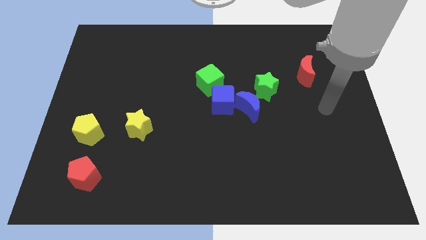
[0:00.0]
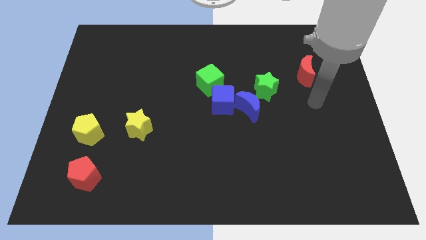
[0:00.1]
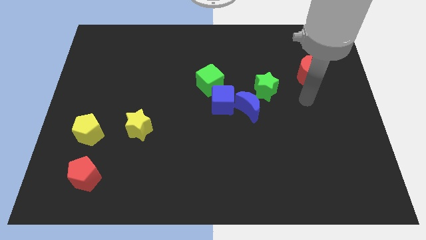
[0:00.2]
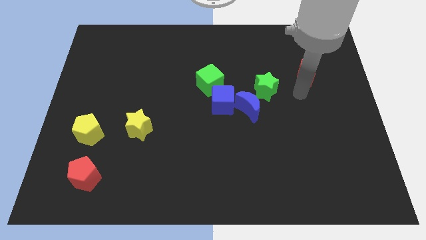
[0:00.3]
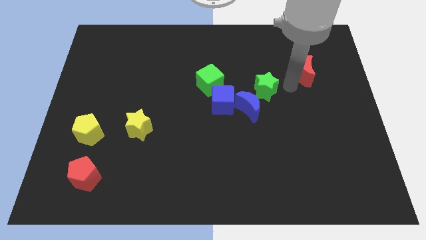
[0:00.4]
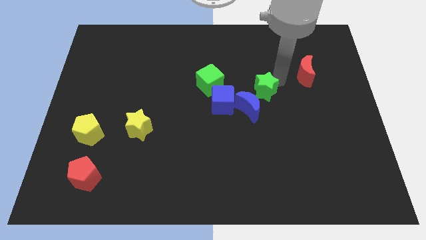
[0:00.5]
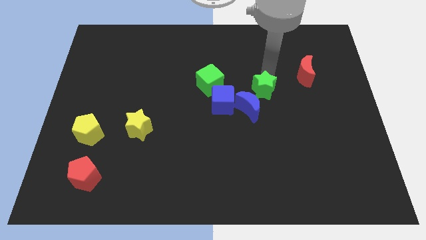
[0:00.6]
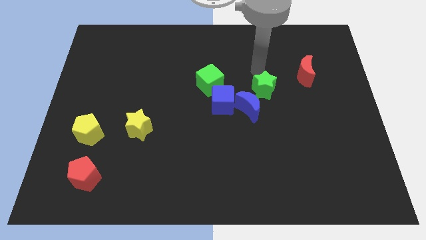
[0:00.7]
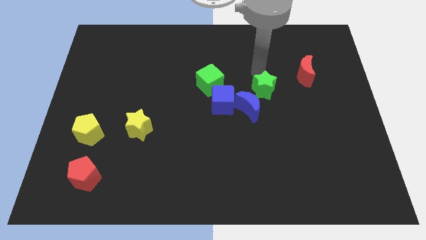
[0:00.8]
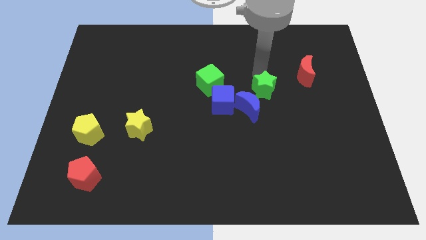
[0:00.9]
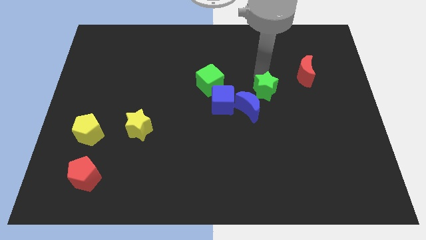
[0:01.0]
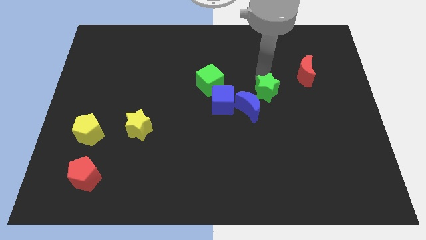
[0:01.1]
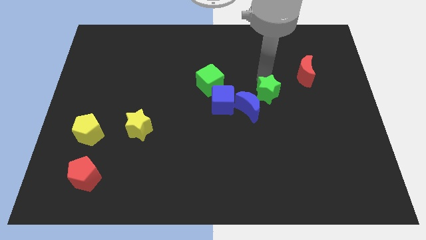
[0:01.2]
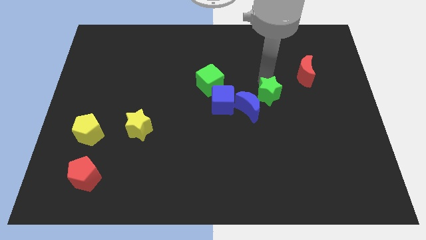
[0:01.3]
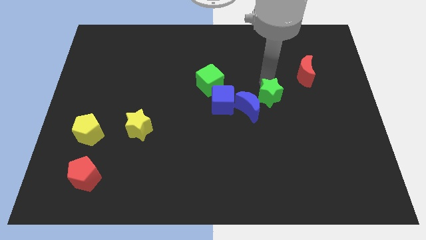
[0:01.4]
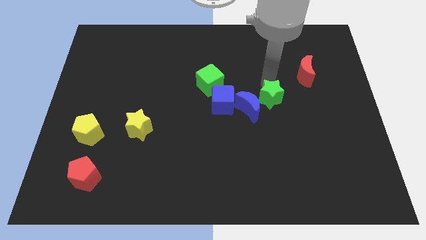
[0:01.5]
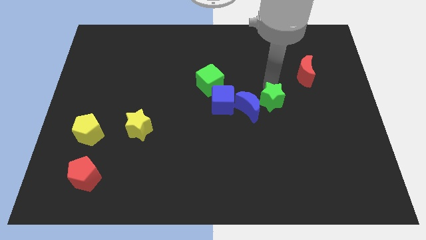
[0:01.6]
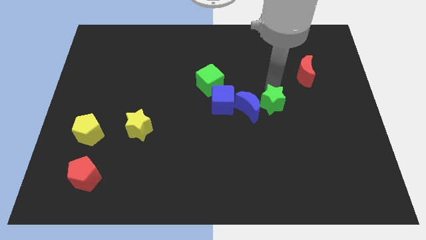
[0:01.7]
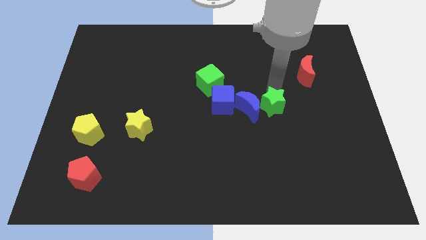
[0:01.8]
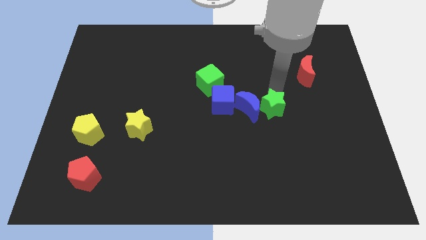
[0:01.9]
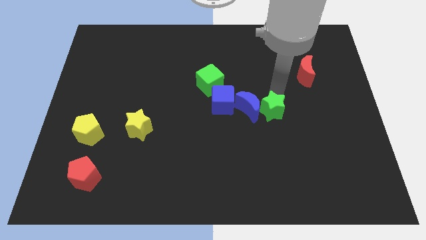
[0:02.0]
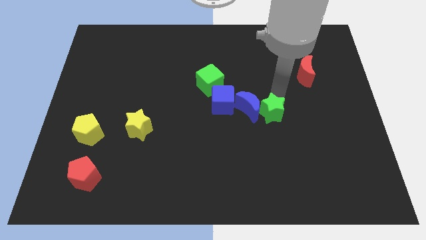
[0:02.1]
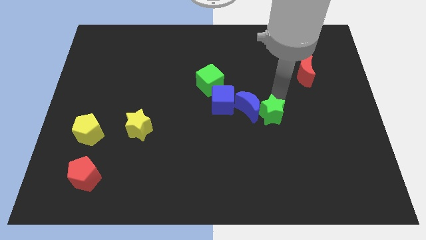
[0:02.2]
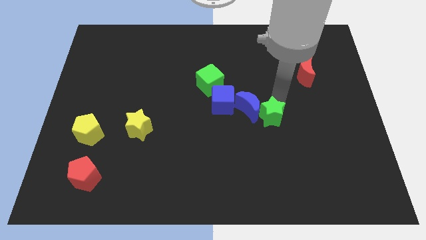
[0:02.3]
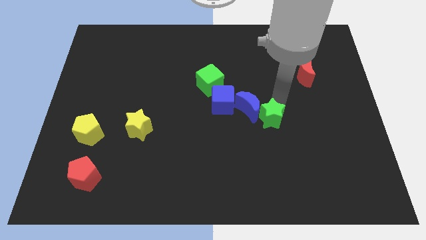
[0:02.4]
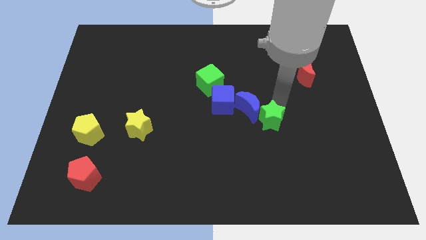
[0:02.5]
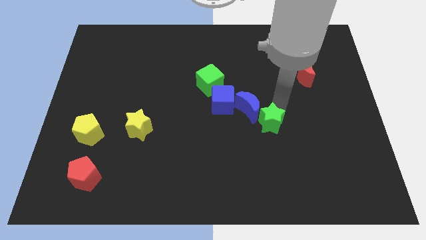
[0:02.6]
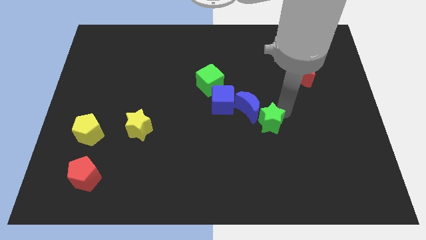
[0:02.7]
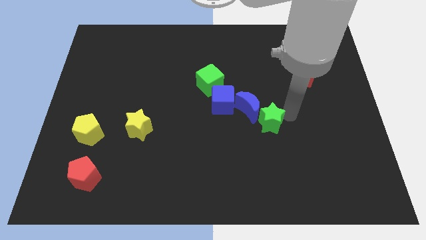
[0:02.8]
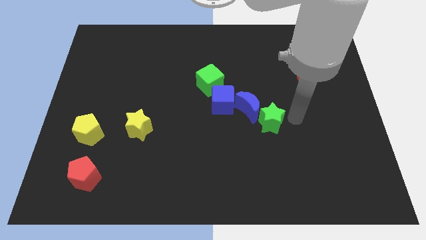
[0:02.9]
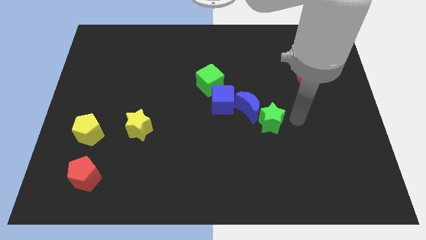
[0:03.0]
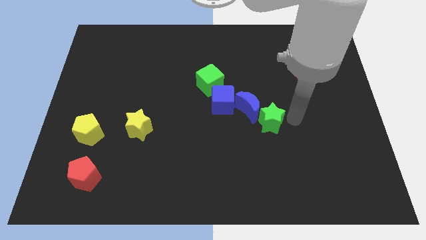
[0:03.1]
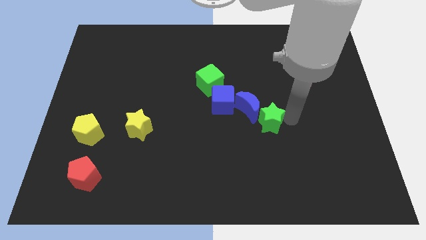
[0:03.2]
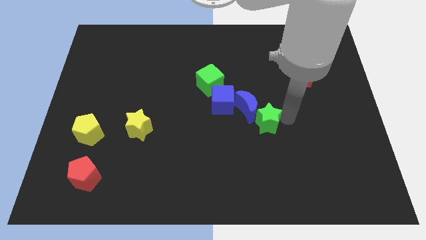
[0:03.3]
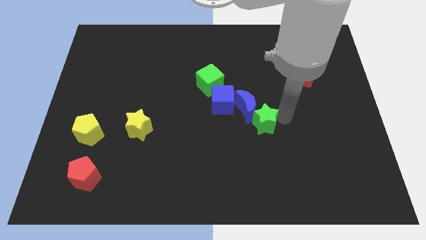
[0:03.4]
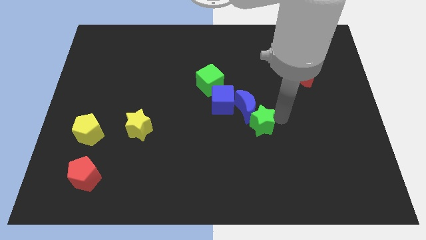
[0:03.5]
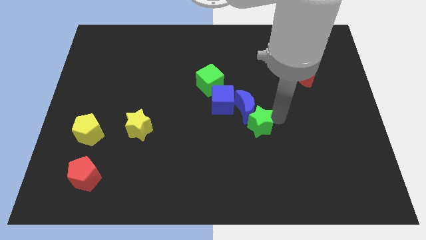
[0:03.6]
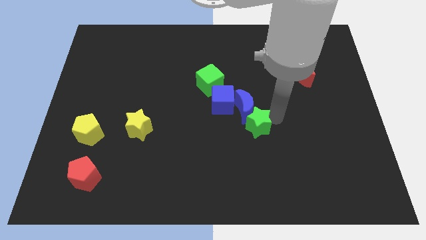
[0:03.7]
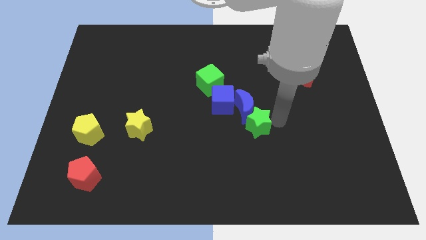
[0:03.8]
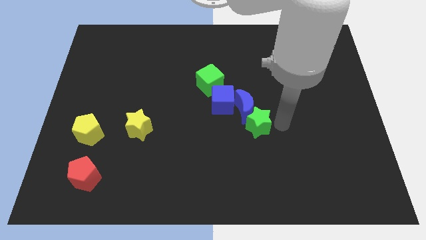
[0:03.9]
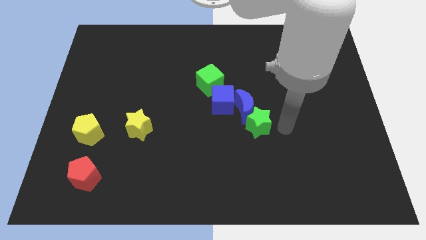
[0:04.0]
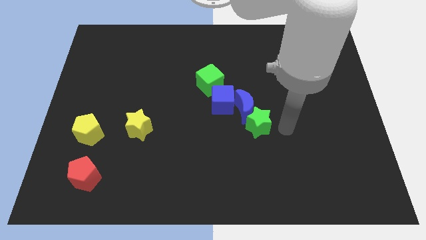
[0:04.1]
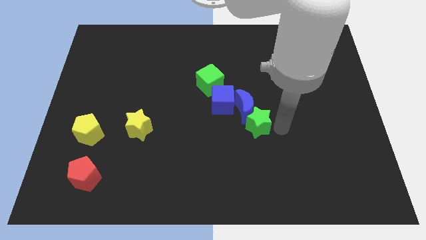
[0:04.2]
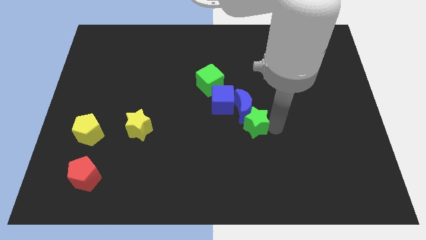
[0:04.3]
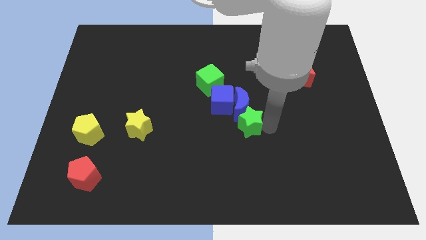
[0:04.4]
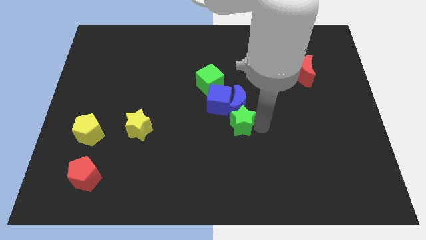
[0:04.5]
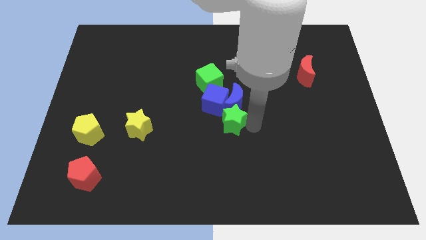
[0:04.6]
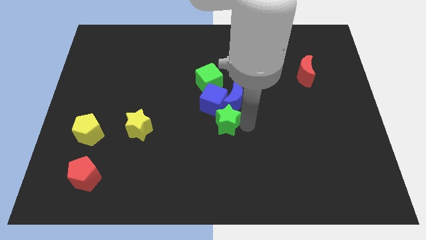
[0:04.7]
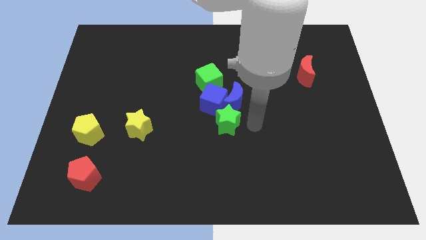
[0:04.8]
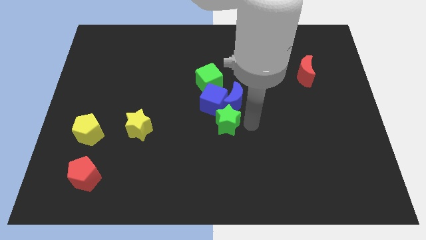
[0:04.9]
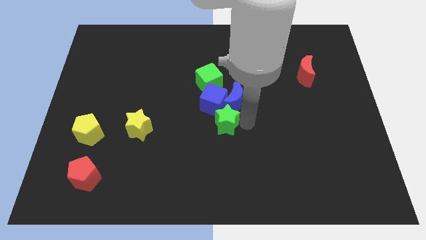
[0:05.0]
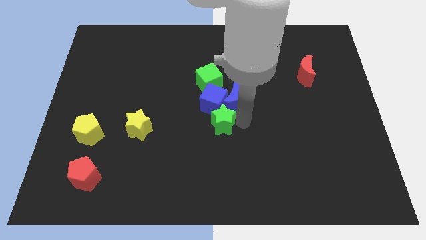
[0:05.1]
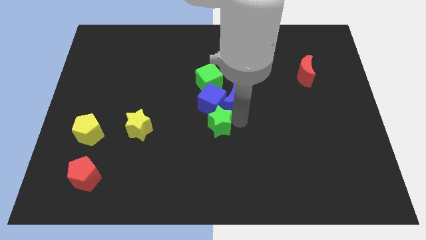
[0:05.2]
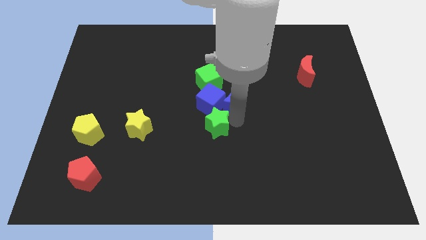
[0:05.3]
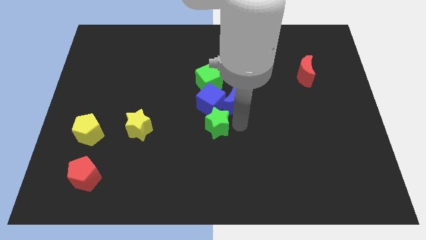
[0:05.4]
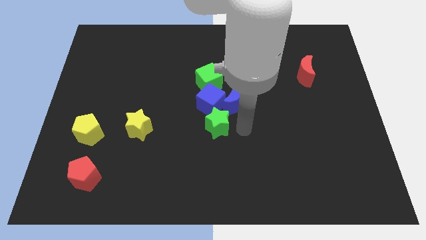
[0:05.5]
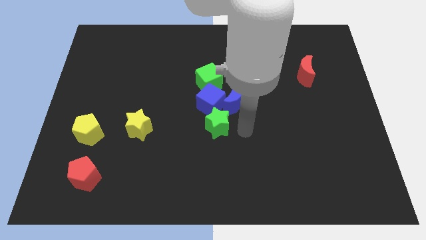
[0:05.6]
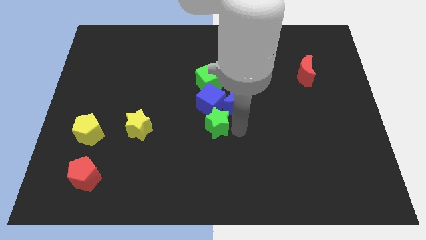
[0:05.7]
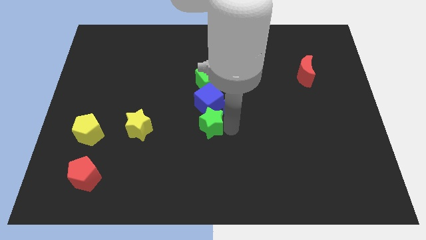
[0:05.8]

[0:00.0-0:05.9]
put the green star diagonally down and to the left of the blue cube
